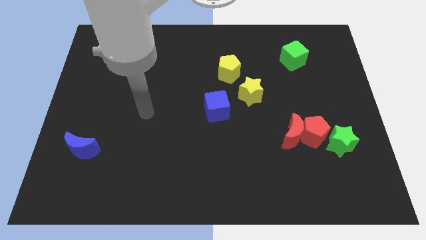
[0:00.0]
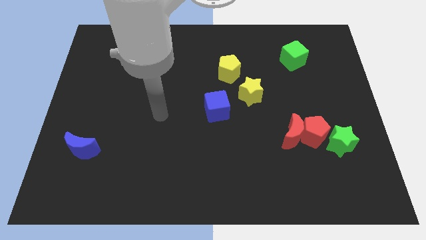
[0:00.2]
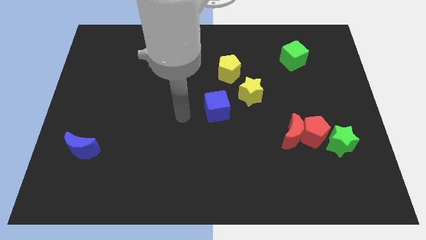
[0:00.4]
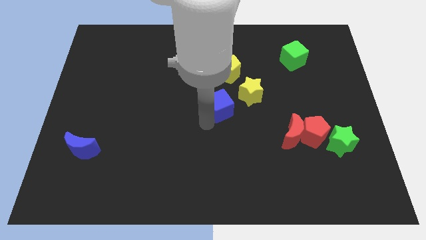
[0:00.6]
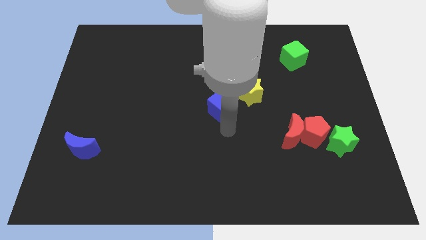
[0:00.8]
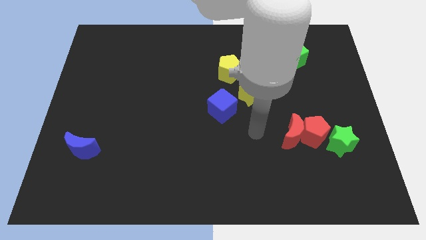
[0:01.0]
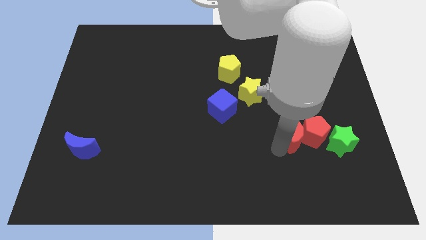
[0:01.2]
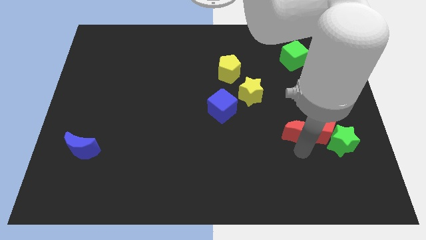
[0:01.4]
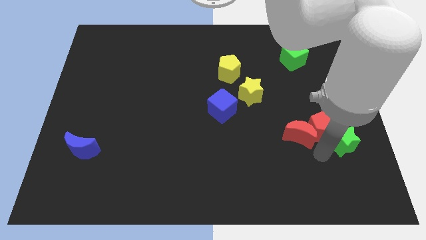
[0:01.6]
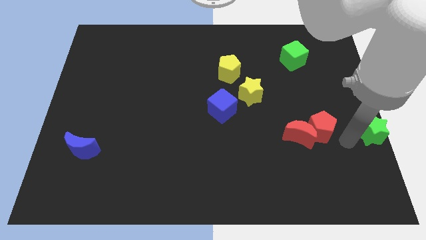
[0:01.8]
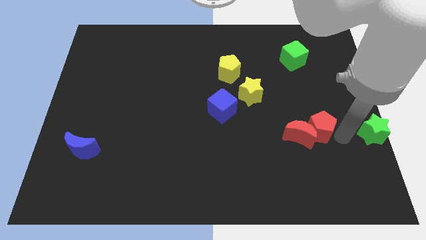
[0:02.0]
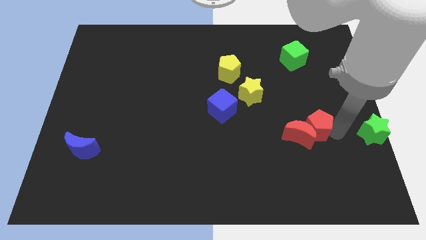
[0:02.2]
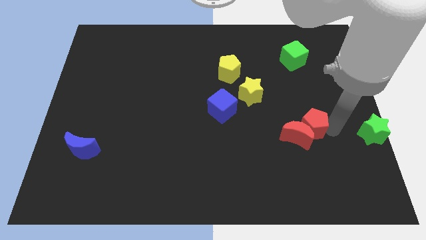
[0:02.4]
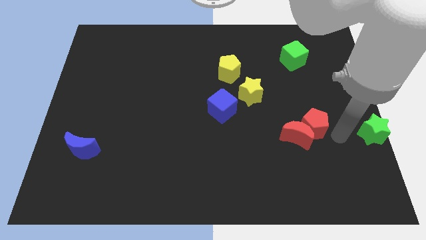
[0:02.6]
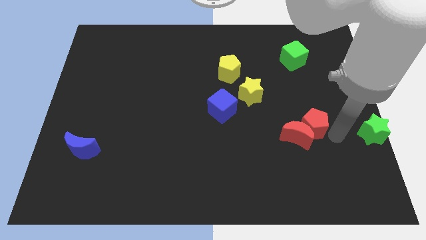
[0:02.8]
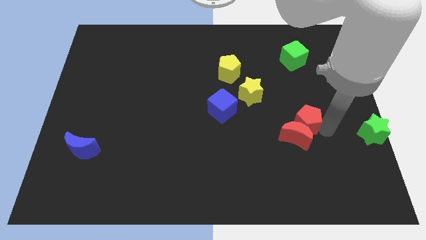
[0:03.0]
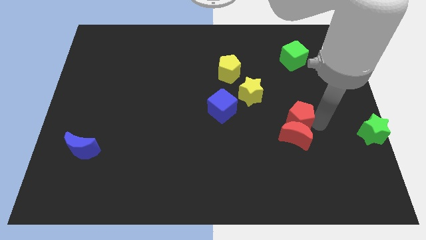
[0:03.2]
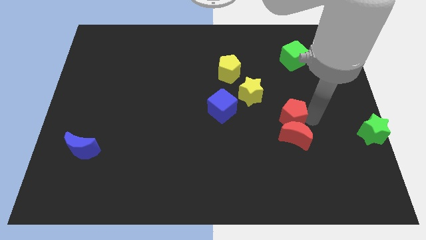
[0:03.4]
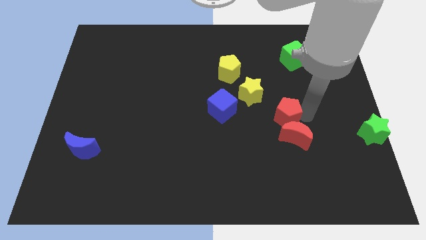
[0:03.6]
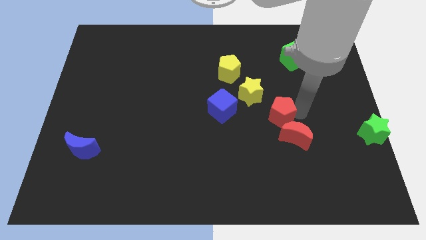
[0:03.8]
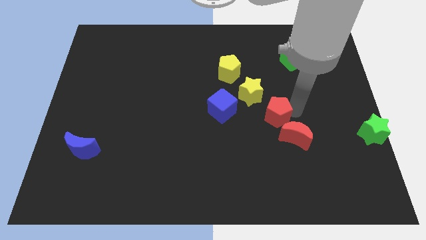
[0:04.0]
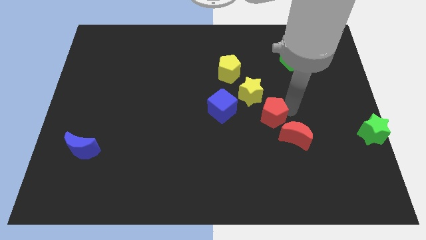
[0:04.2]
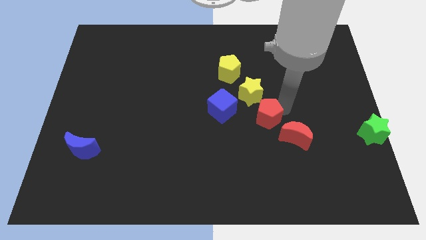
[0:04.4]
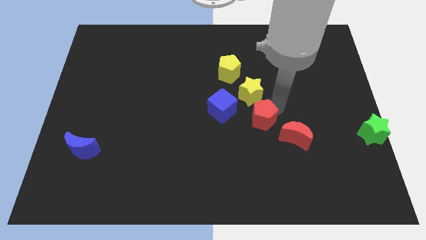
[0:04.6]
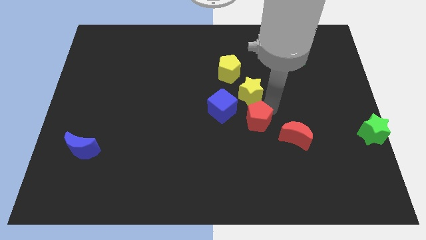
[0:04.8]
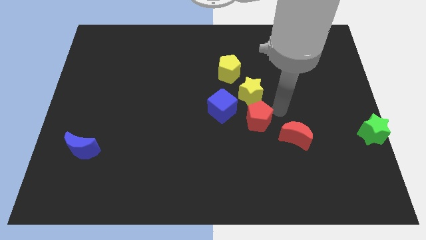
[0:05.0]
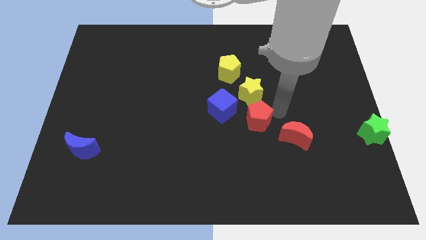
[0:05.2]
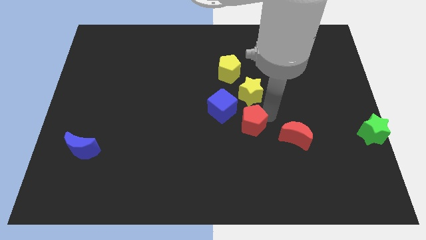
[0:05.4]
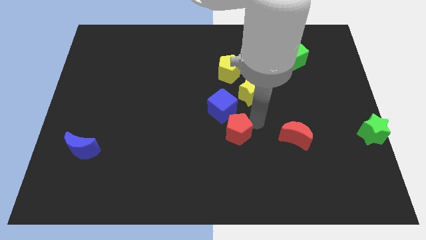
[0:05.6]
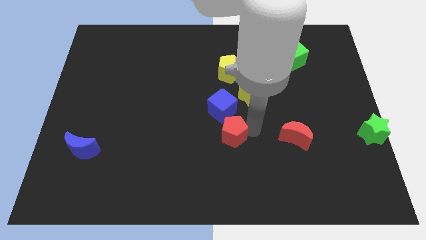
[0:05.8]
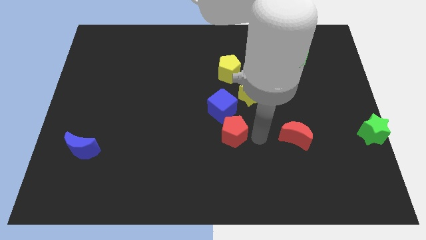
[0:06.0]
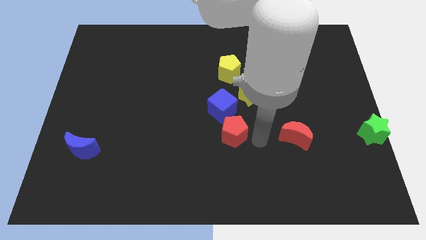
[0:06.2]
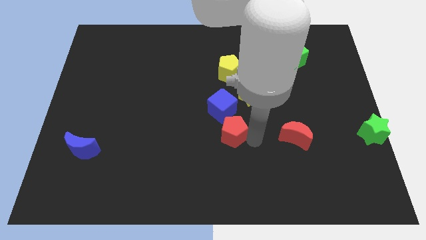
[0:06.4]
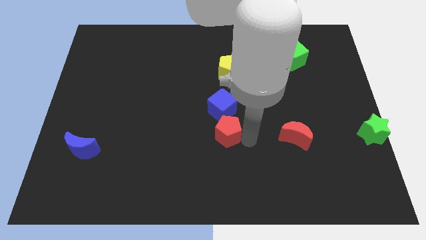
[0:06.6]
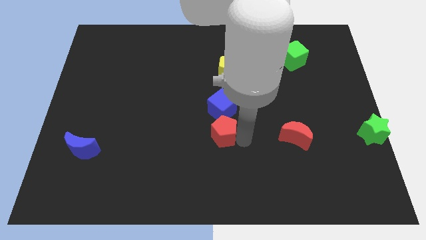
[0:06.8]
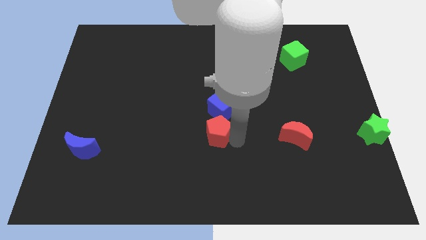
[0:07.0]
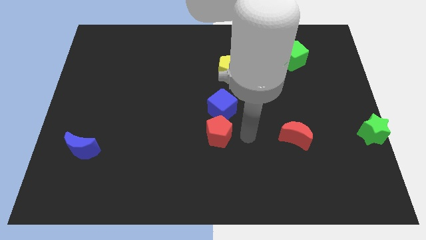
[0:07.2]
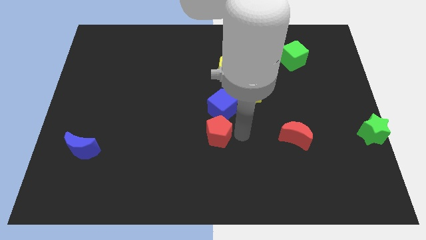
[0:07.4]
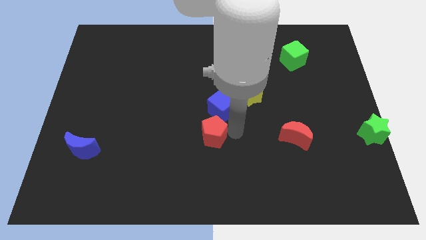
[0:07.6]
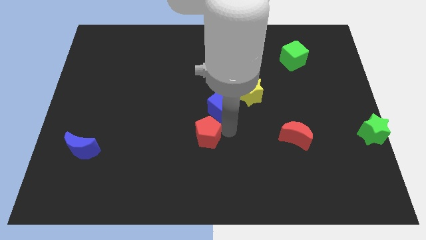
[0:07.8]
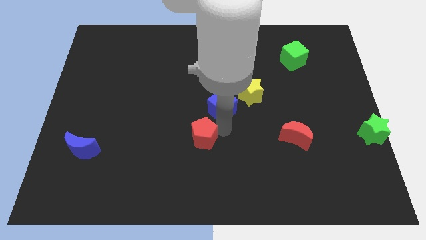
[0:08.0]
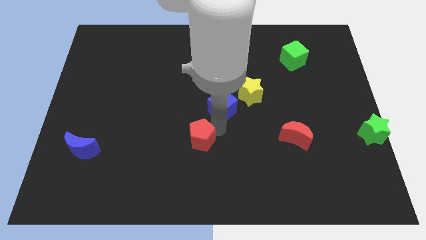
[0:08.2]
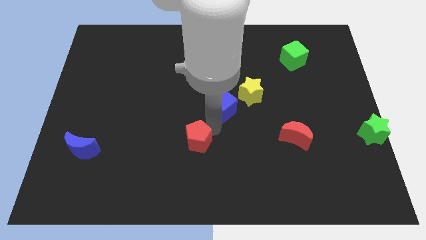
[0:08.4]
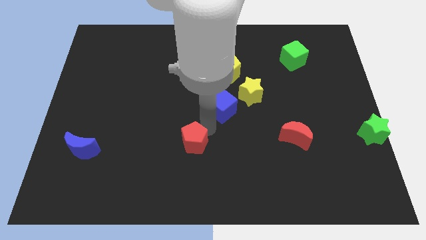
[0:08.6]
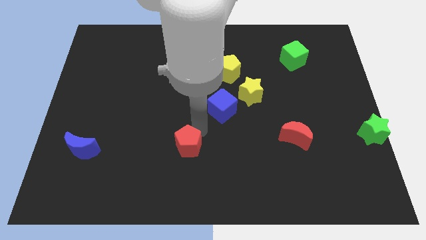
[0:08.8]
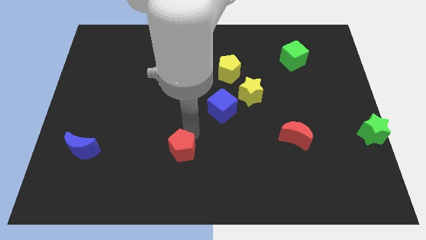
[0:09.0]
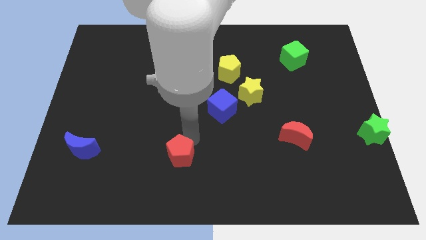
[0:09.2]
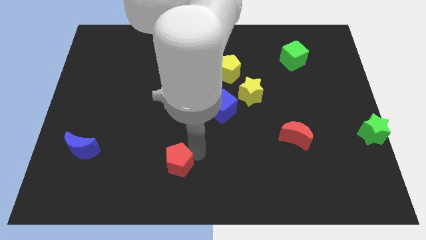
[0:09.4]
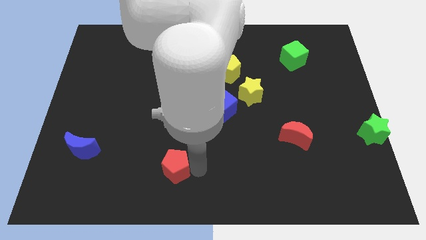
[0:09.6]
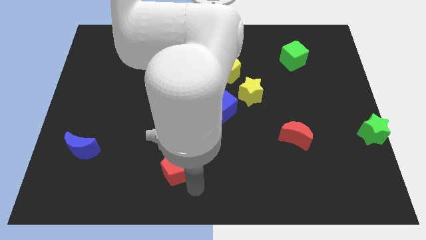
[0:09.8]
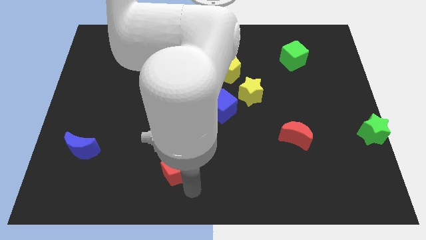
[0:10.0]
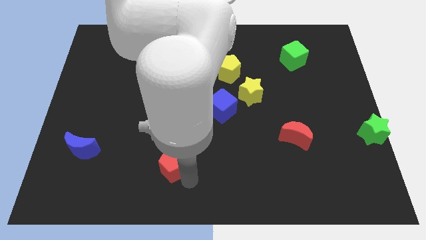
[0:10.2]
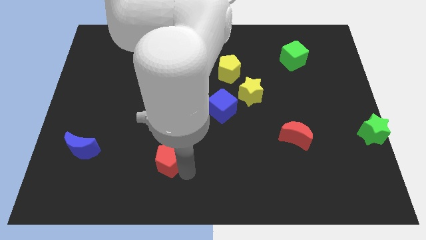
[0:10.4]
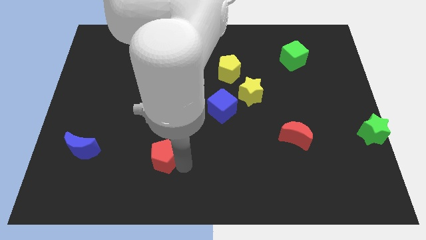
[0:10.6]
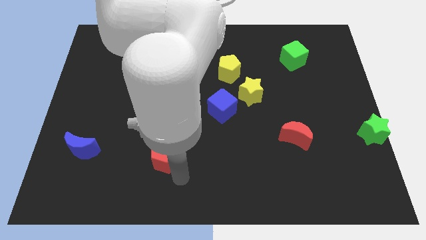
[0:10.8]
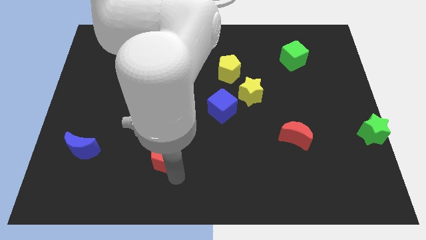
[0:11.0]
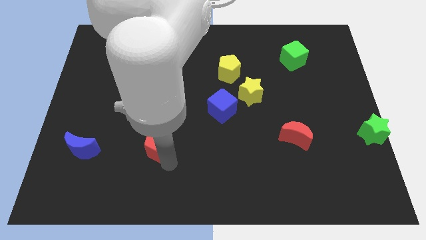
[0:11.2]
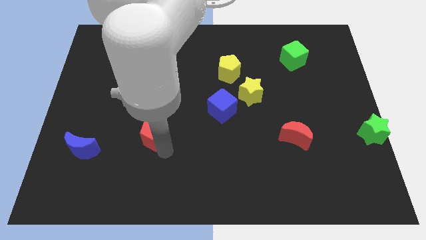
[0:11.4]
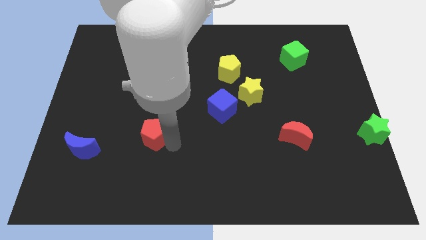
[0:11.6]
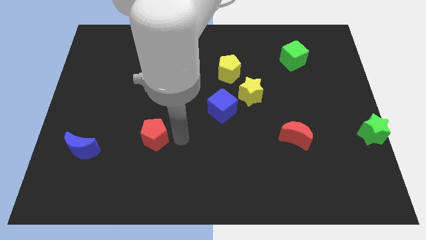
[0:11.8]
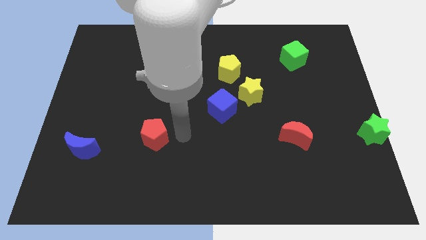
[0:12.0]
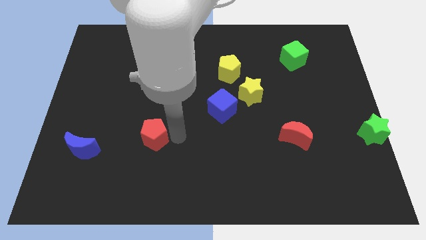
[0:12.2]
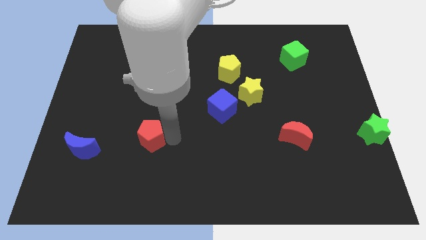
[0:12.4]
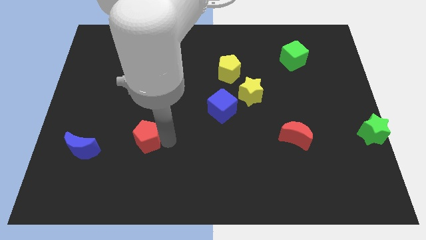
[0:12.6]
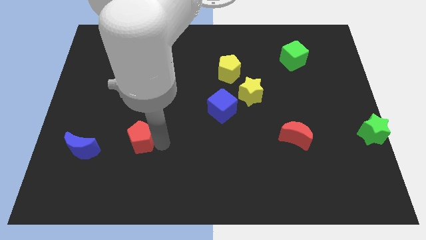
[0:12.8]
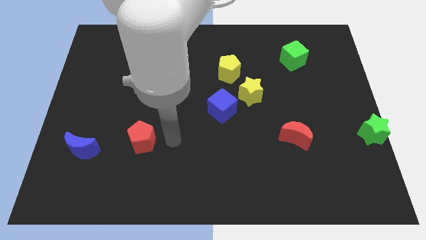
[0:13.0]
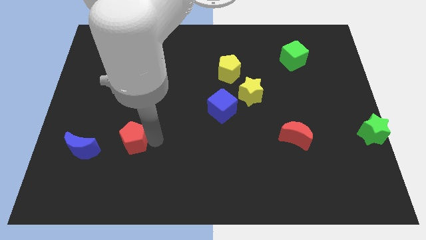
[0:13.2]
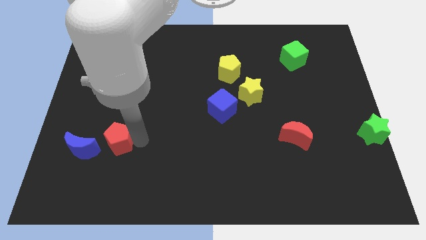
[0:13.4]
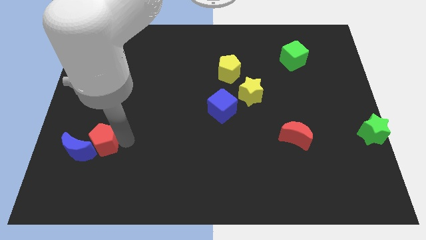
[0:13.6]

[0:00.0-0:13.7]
put the red pentagon close to the blue moon
